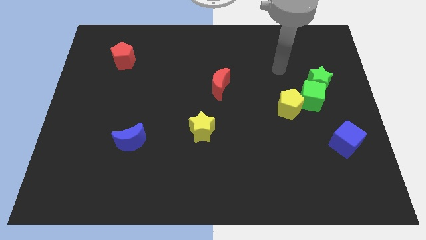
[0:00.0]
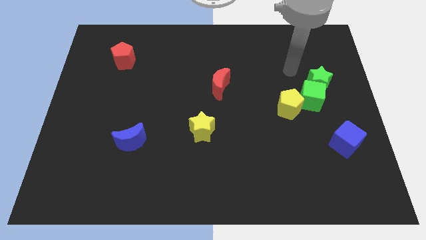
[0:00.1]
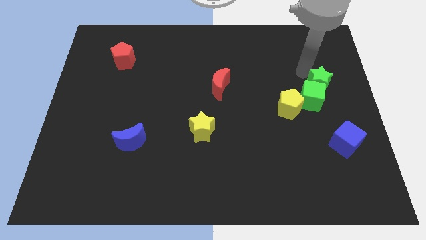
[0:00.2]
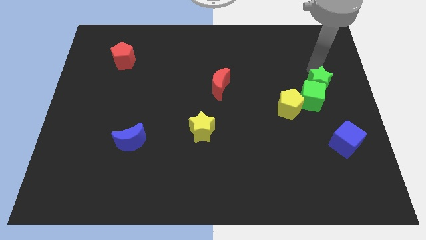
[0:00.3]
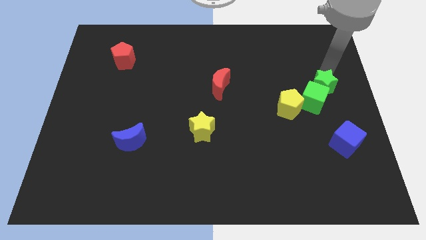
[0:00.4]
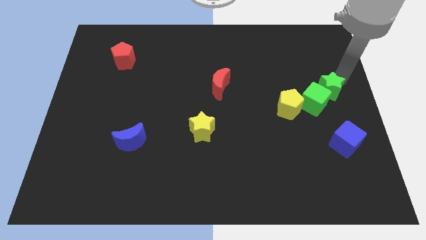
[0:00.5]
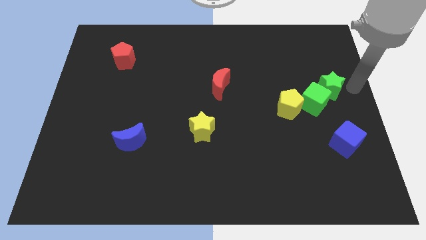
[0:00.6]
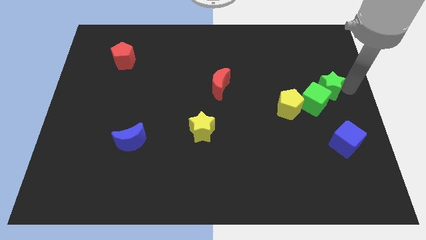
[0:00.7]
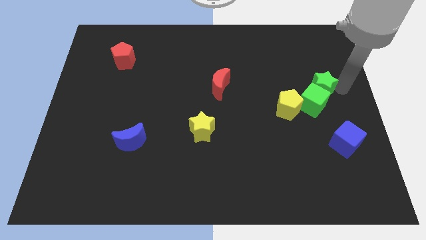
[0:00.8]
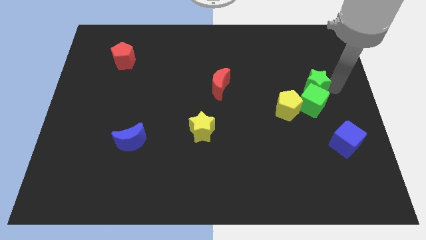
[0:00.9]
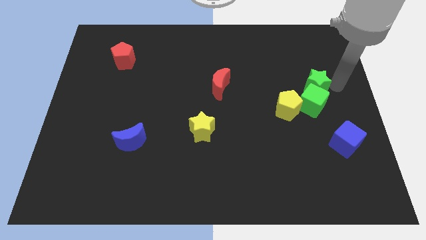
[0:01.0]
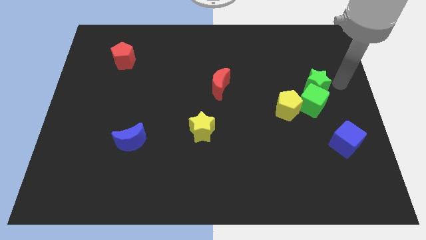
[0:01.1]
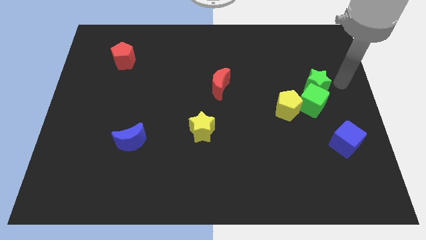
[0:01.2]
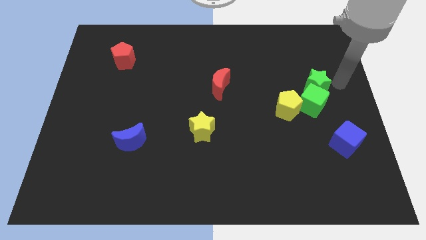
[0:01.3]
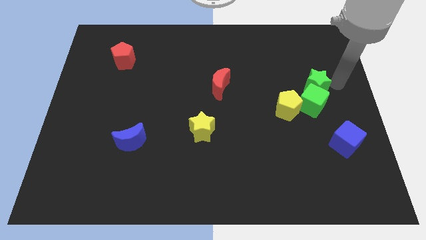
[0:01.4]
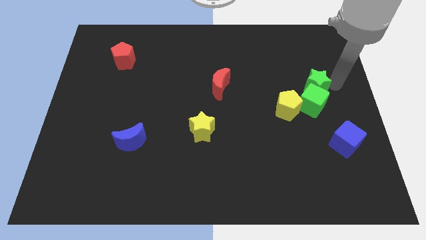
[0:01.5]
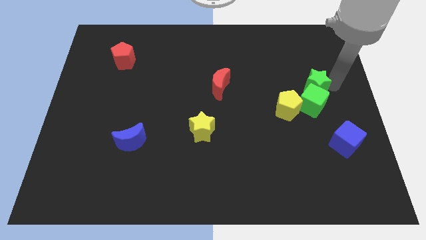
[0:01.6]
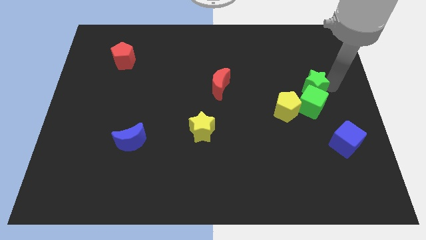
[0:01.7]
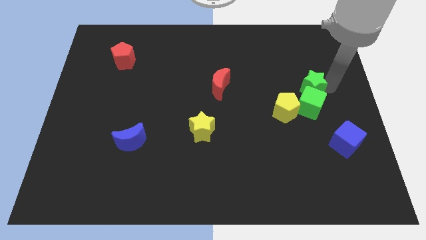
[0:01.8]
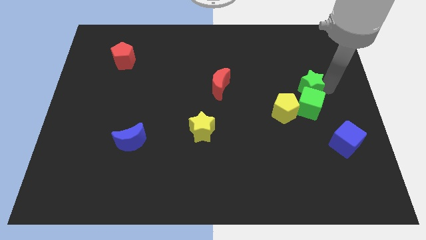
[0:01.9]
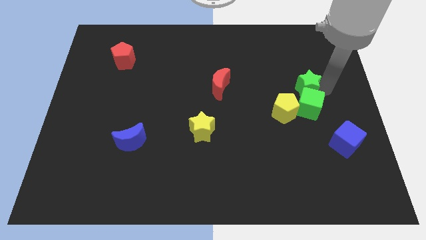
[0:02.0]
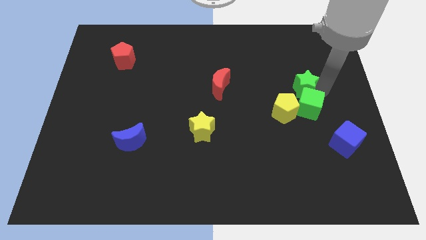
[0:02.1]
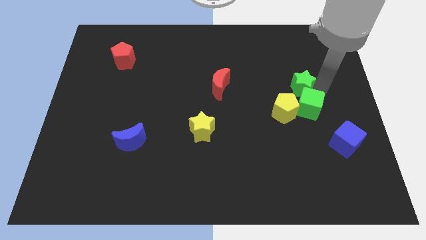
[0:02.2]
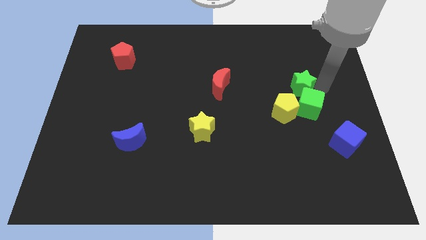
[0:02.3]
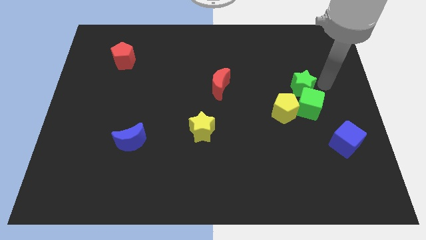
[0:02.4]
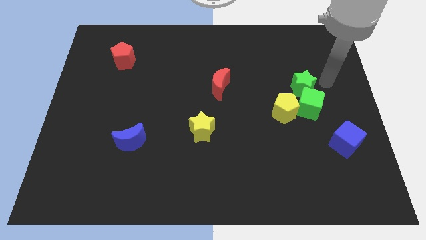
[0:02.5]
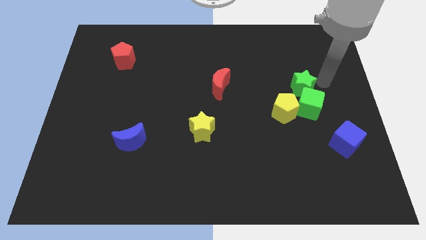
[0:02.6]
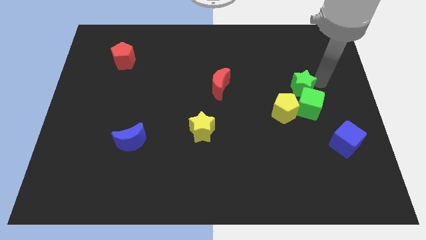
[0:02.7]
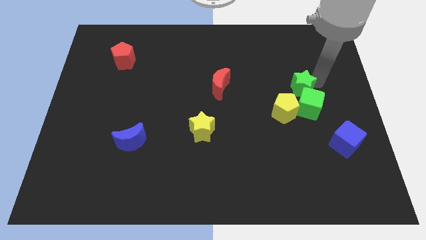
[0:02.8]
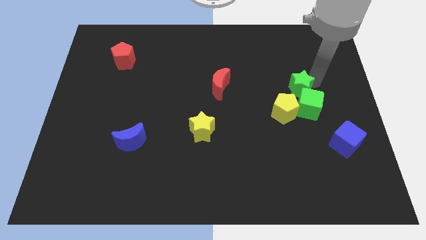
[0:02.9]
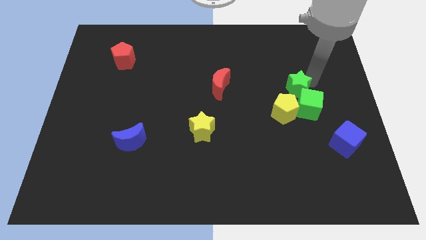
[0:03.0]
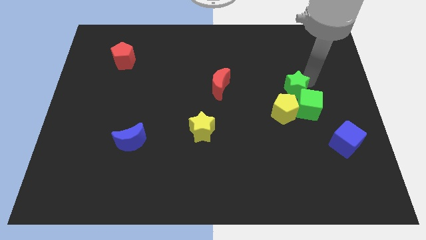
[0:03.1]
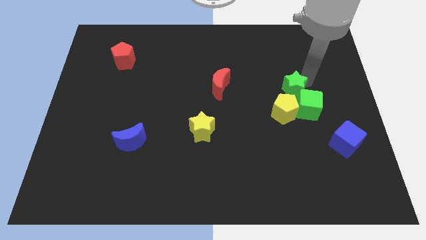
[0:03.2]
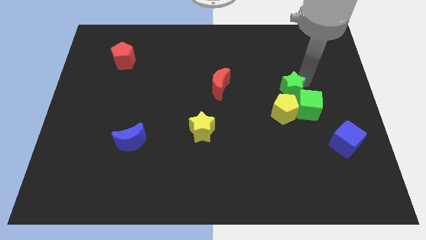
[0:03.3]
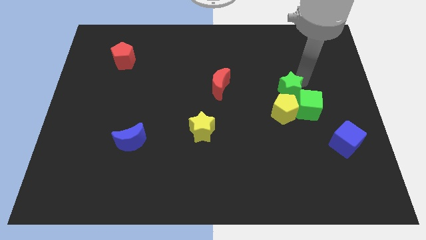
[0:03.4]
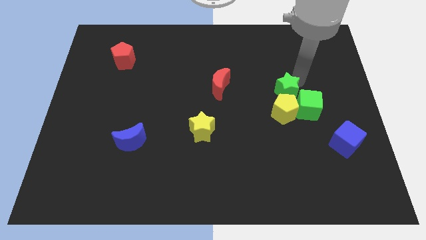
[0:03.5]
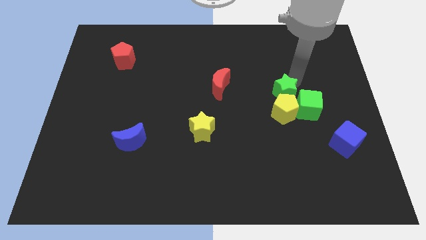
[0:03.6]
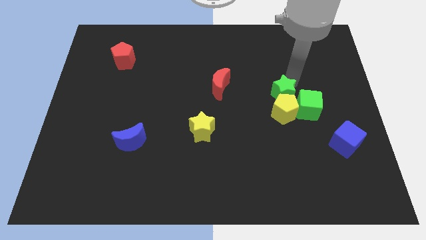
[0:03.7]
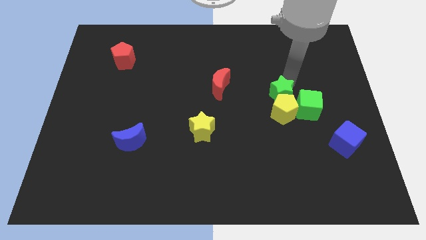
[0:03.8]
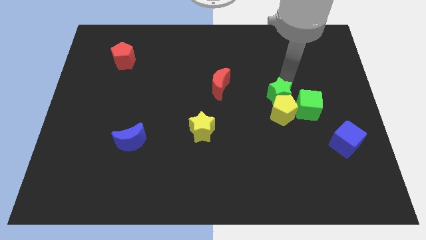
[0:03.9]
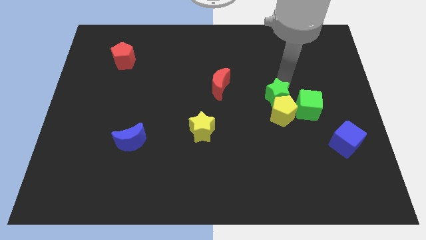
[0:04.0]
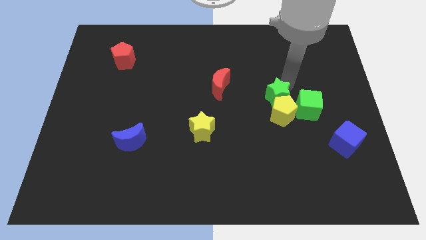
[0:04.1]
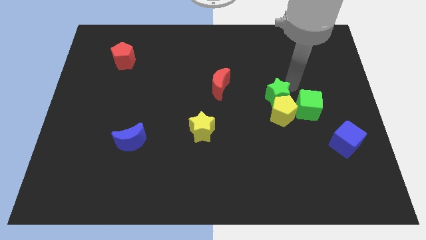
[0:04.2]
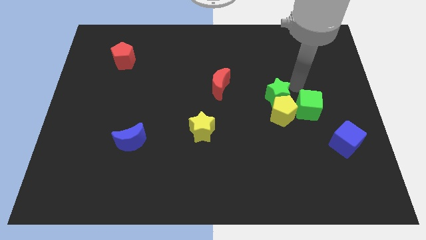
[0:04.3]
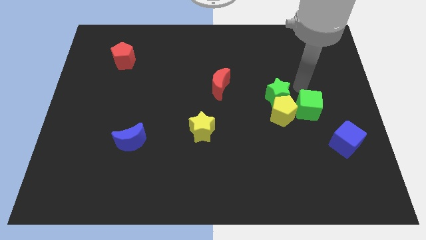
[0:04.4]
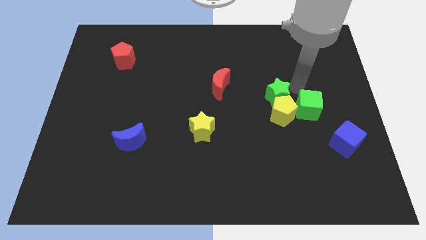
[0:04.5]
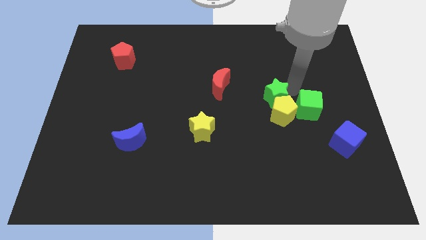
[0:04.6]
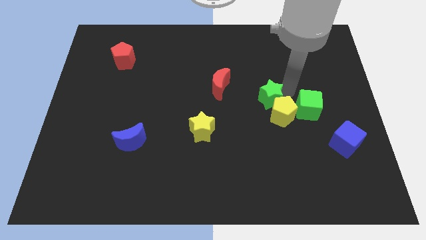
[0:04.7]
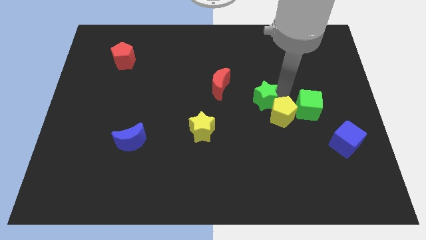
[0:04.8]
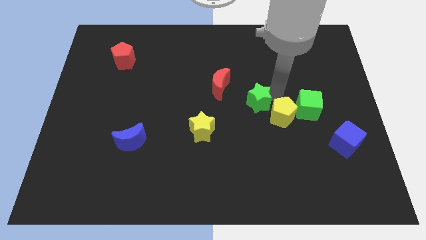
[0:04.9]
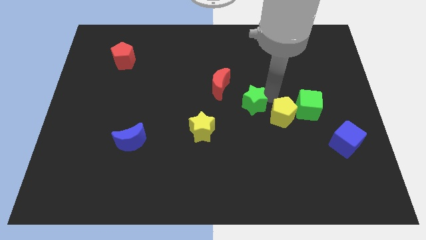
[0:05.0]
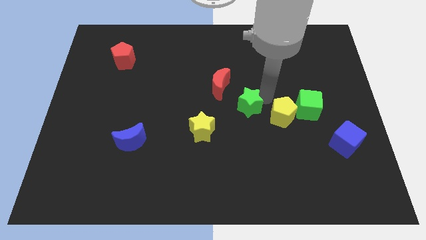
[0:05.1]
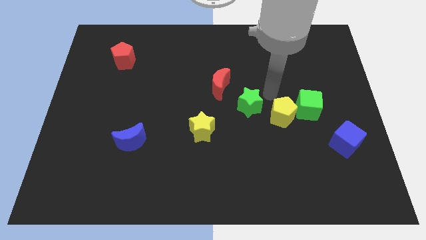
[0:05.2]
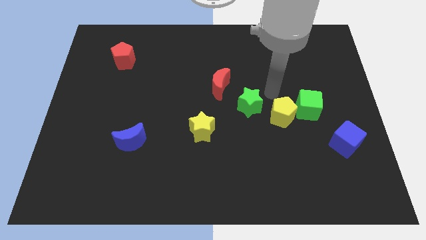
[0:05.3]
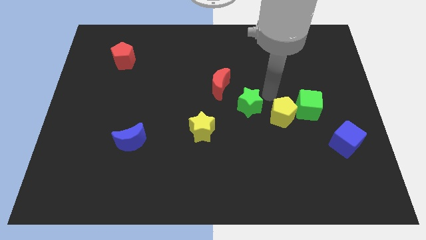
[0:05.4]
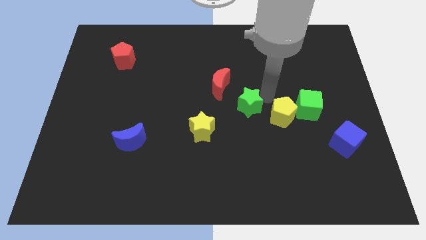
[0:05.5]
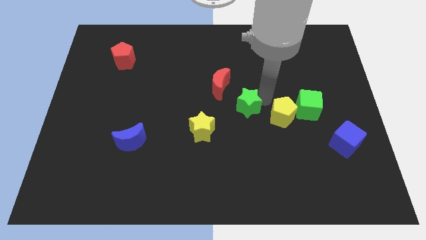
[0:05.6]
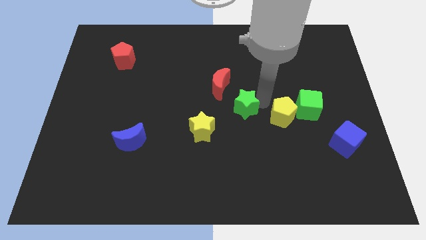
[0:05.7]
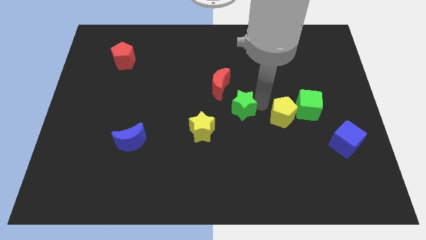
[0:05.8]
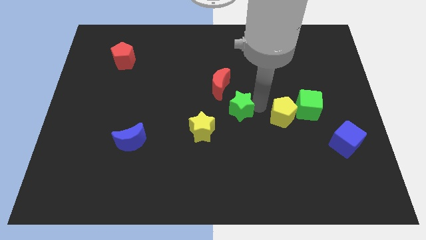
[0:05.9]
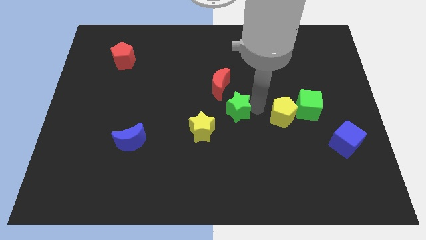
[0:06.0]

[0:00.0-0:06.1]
move the green star below the red moon

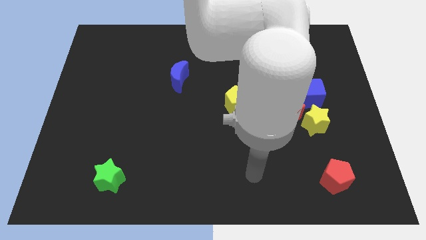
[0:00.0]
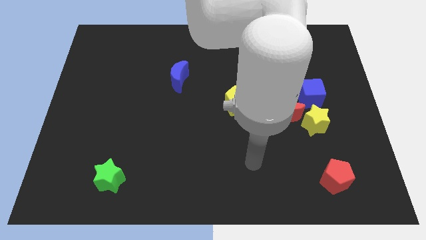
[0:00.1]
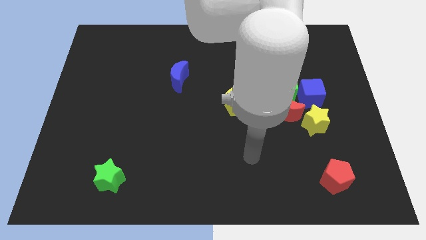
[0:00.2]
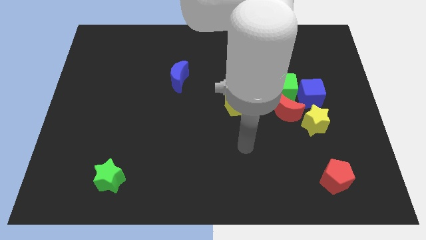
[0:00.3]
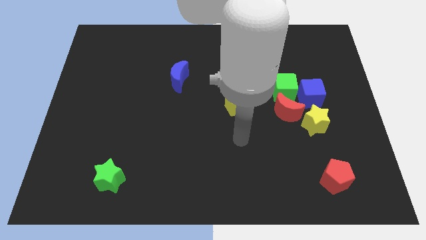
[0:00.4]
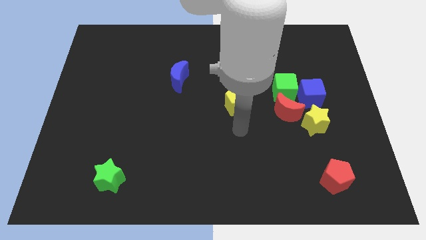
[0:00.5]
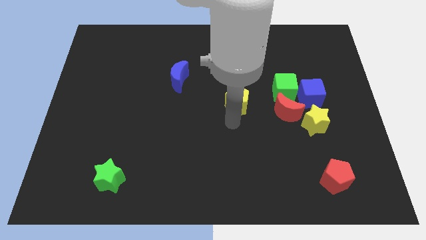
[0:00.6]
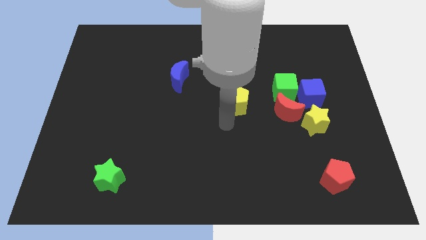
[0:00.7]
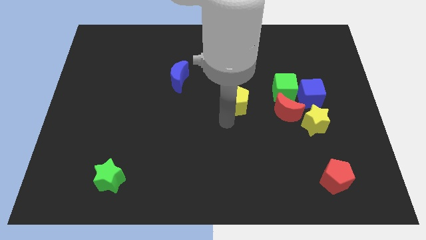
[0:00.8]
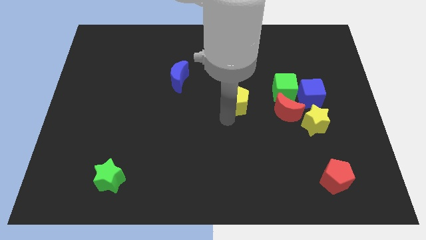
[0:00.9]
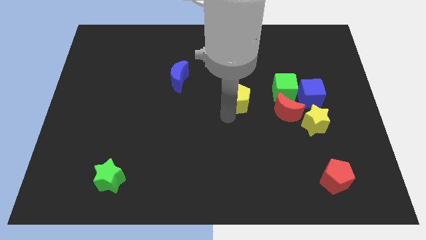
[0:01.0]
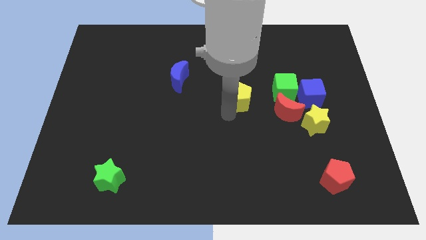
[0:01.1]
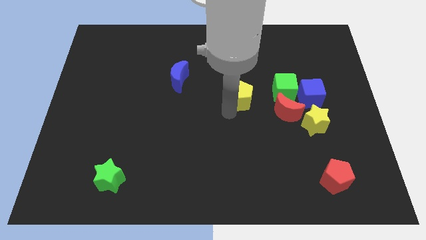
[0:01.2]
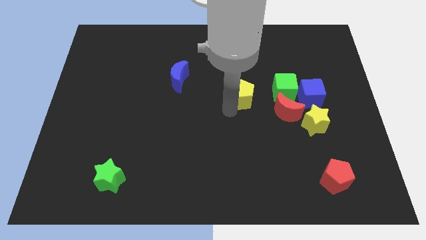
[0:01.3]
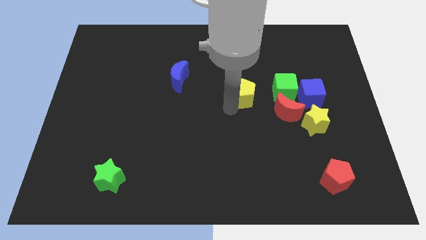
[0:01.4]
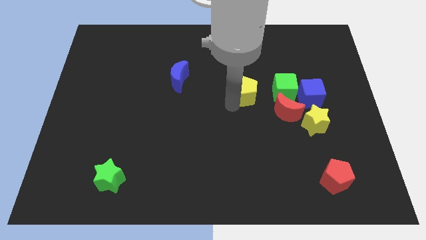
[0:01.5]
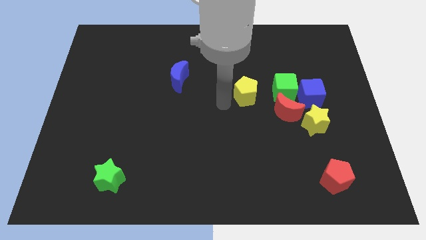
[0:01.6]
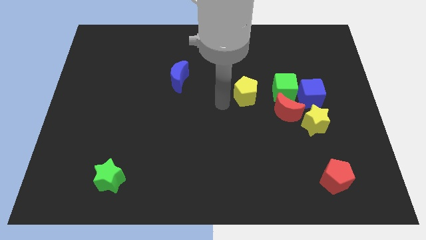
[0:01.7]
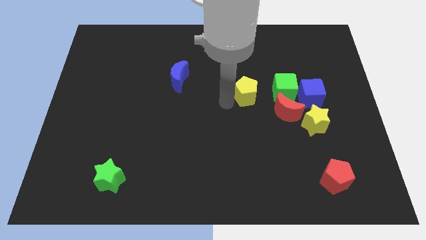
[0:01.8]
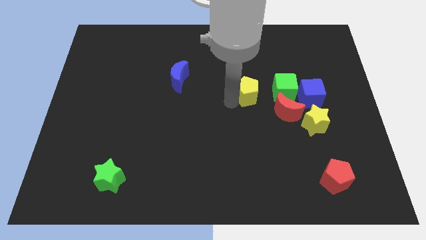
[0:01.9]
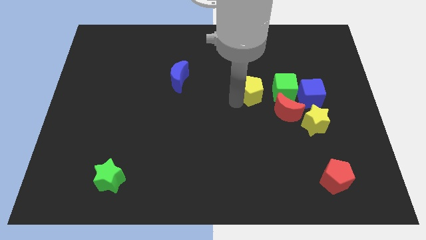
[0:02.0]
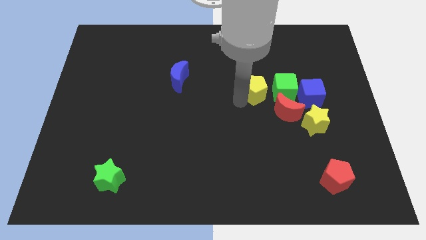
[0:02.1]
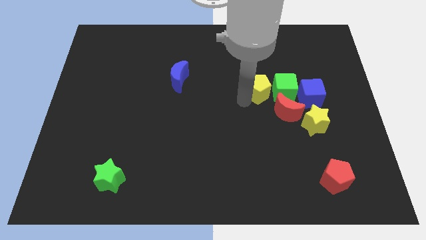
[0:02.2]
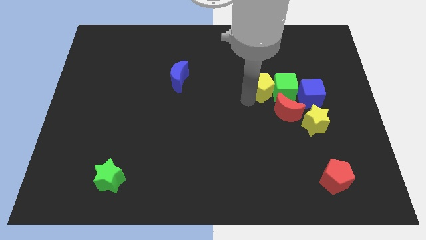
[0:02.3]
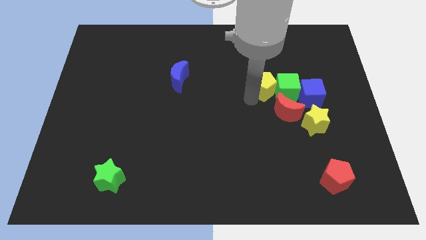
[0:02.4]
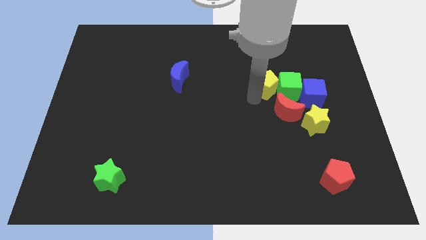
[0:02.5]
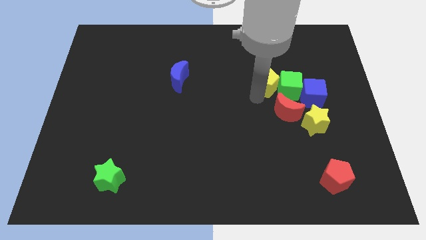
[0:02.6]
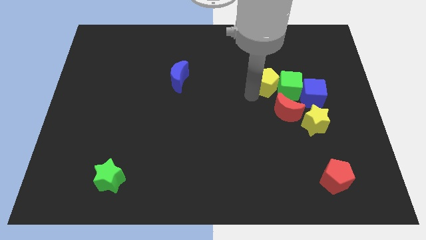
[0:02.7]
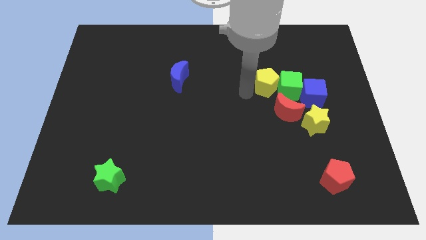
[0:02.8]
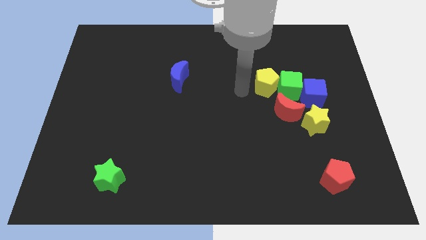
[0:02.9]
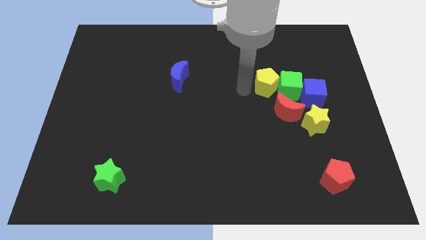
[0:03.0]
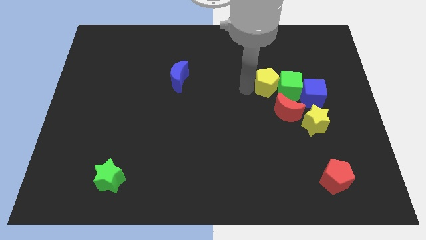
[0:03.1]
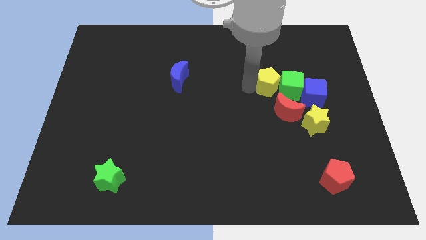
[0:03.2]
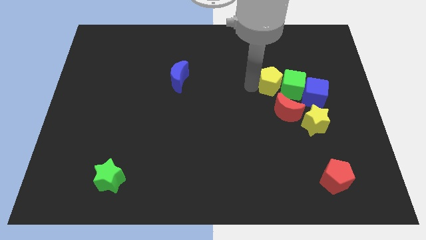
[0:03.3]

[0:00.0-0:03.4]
slide the yellow pentagon to the top left of the blue cube
